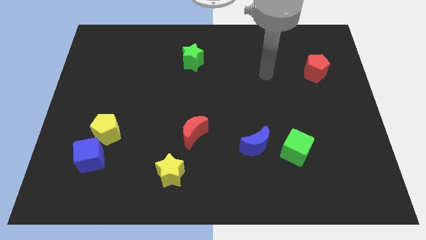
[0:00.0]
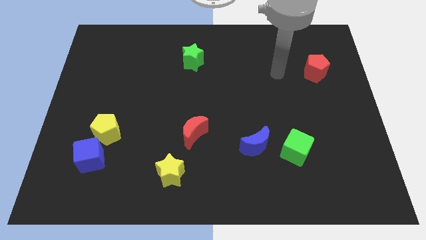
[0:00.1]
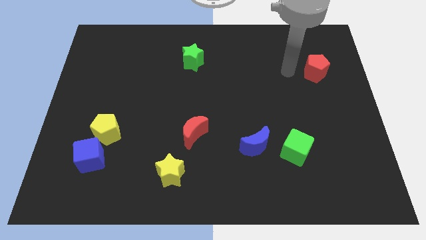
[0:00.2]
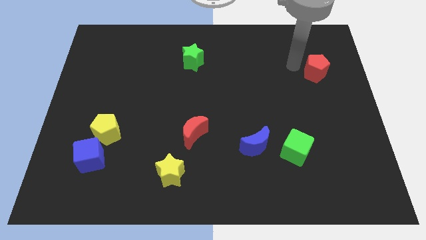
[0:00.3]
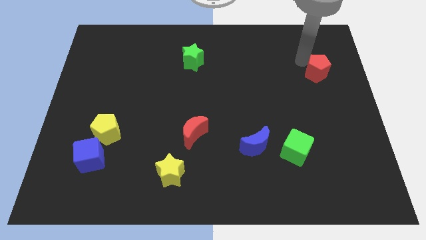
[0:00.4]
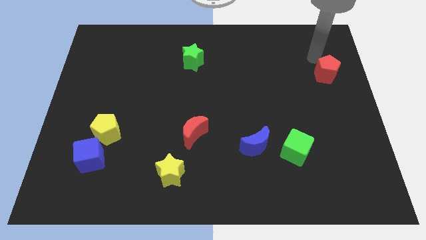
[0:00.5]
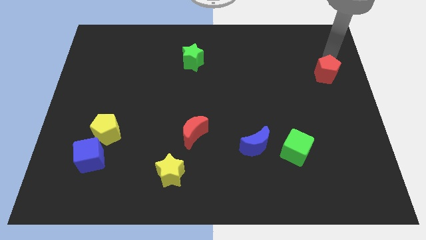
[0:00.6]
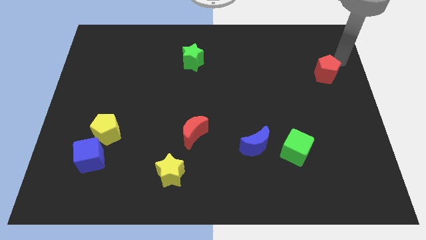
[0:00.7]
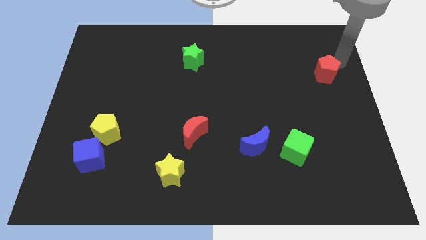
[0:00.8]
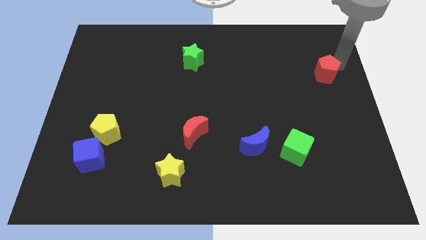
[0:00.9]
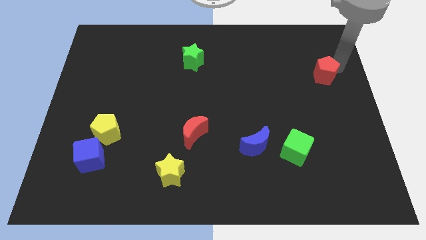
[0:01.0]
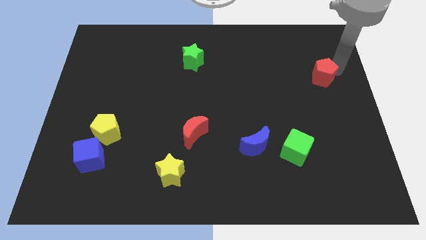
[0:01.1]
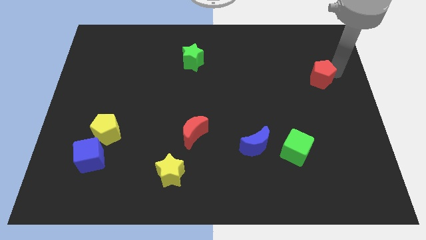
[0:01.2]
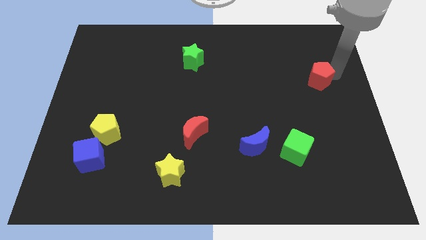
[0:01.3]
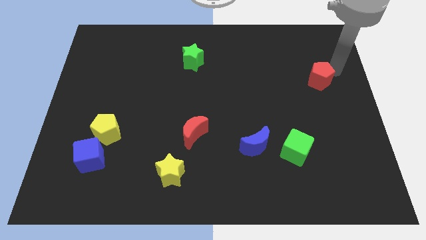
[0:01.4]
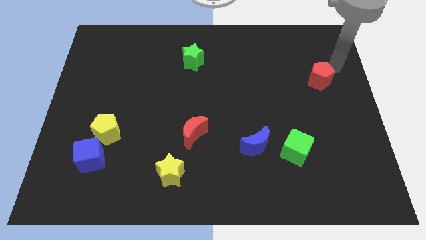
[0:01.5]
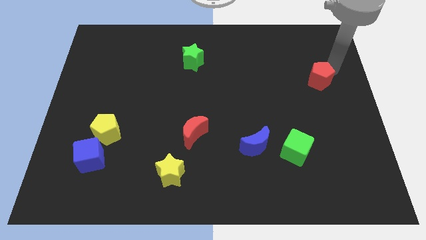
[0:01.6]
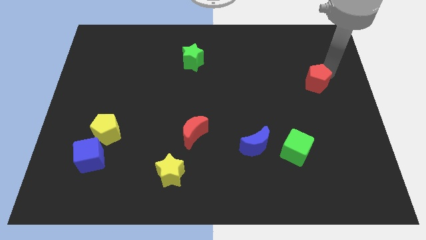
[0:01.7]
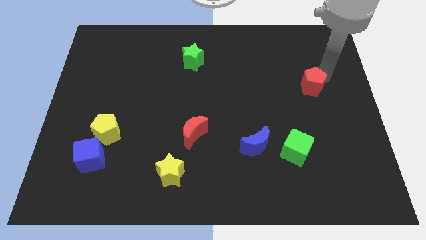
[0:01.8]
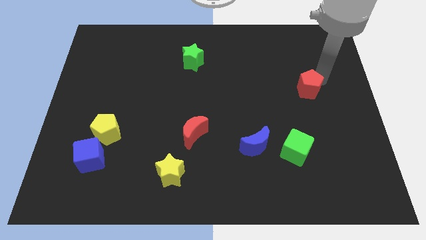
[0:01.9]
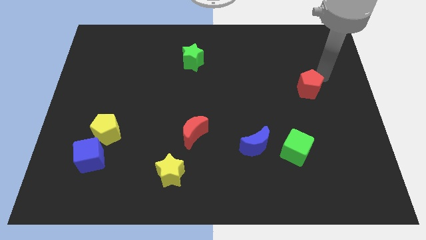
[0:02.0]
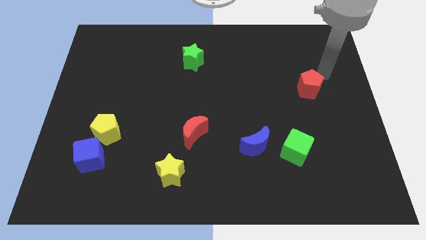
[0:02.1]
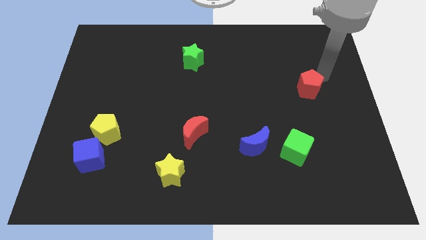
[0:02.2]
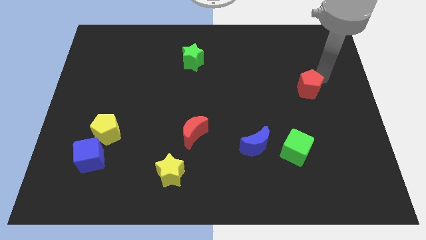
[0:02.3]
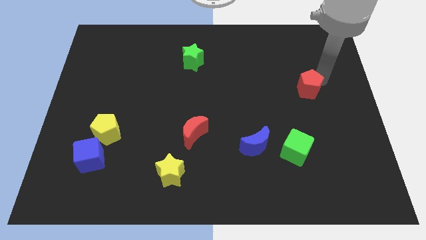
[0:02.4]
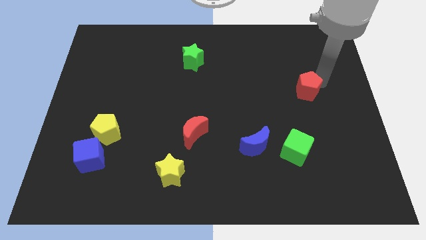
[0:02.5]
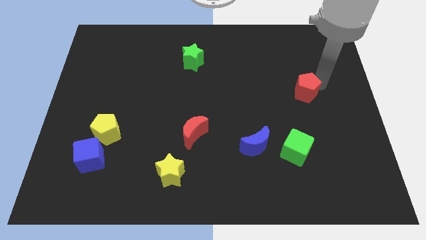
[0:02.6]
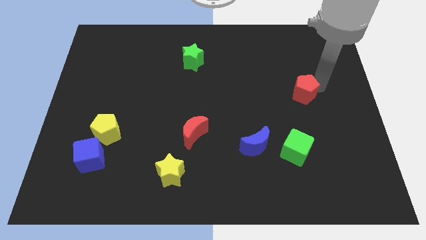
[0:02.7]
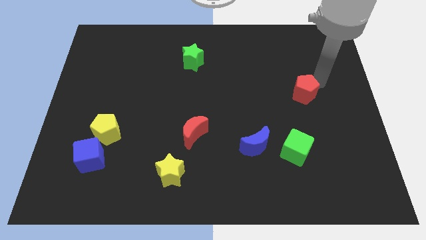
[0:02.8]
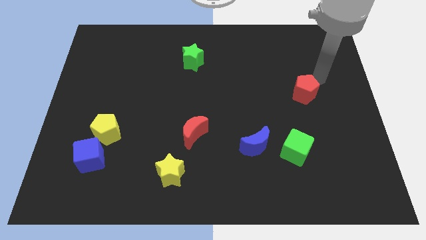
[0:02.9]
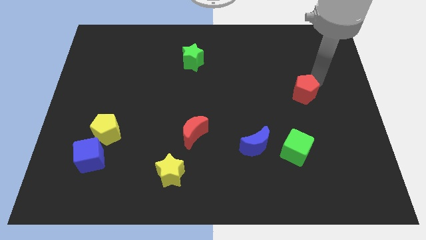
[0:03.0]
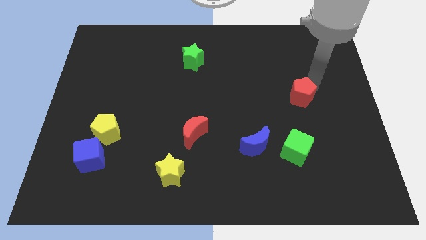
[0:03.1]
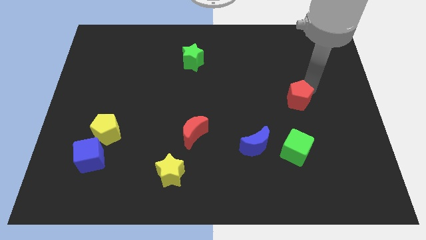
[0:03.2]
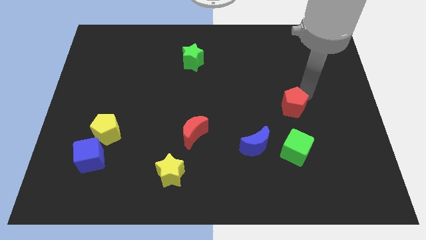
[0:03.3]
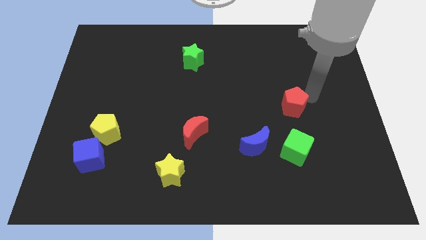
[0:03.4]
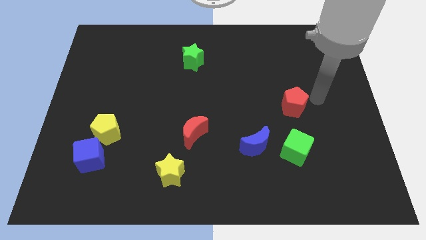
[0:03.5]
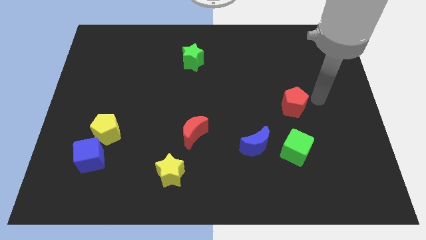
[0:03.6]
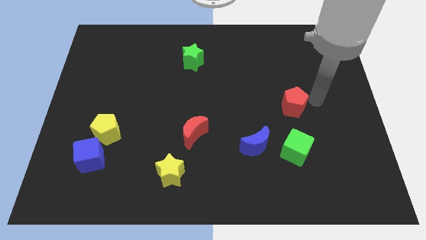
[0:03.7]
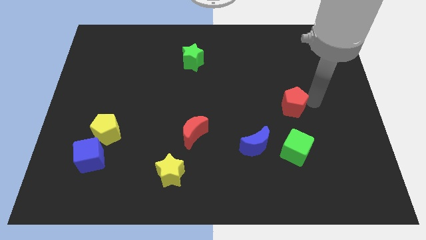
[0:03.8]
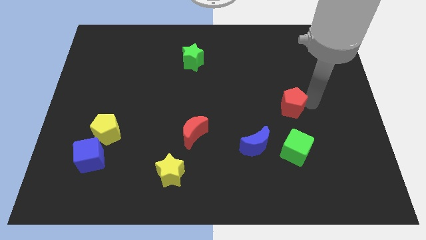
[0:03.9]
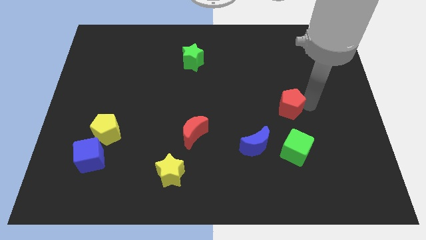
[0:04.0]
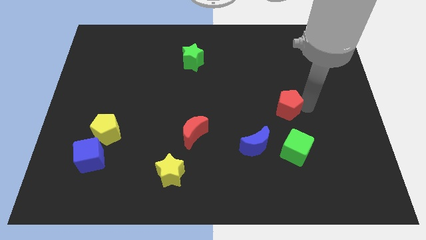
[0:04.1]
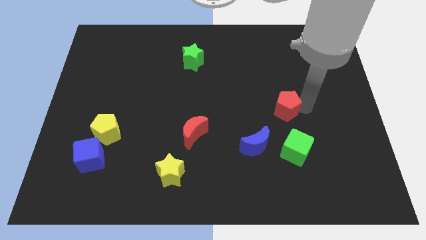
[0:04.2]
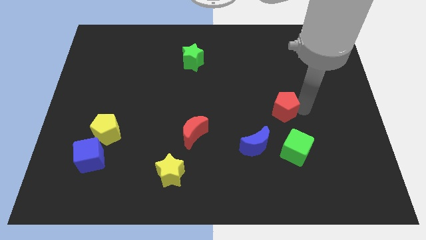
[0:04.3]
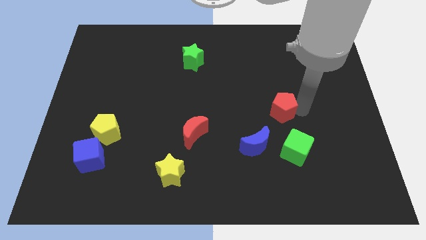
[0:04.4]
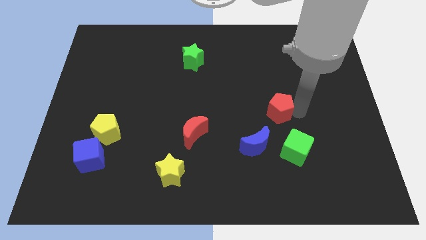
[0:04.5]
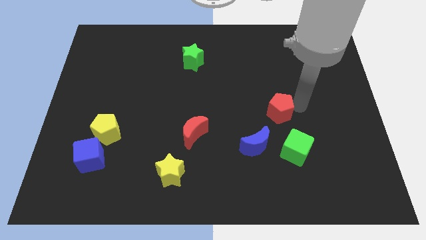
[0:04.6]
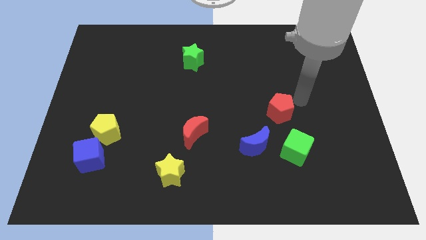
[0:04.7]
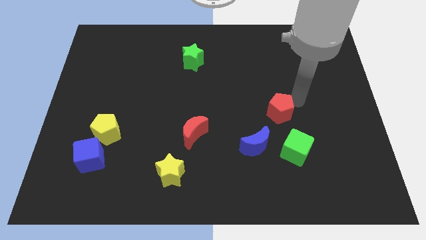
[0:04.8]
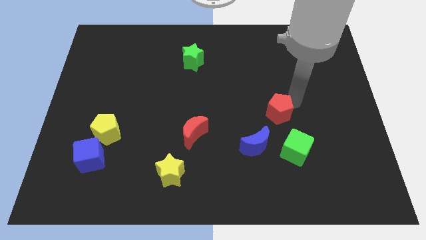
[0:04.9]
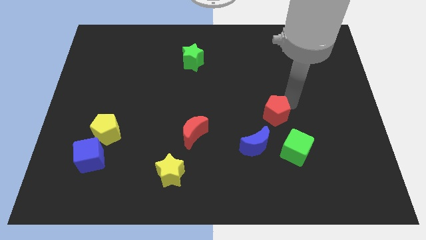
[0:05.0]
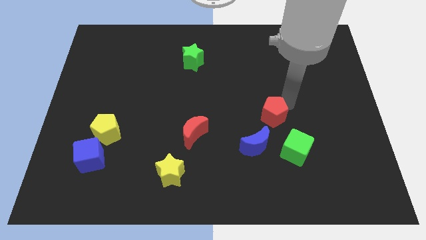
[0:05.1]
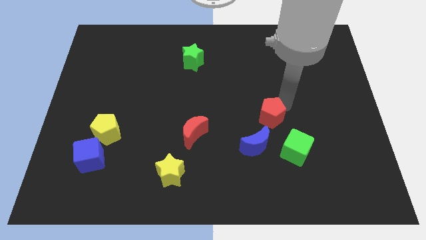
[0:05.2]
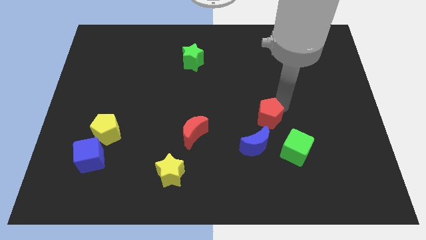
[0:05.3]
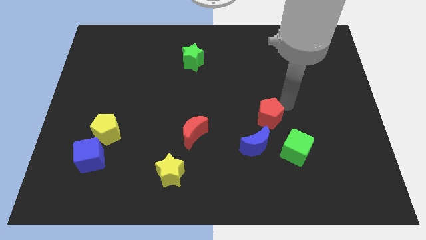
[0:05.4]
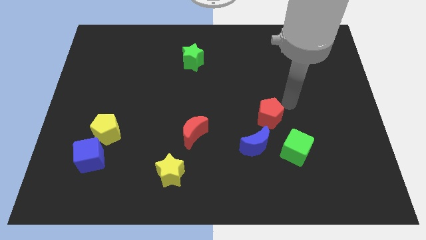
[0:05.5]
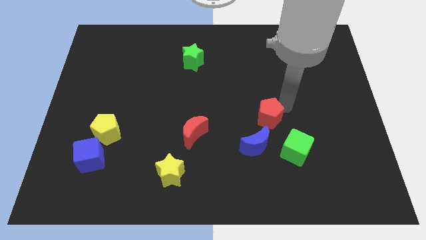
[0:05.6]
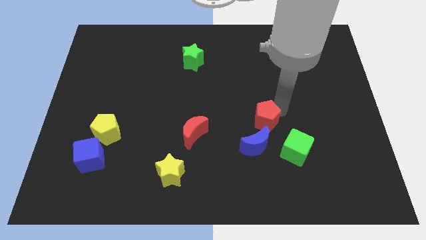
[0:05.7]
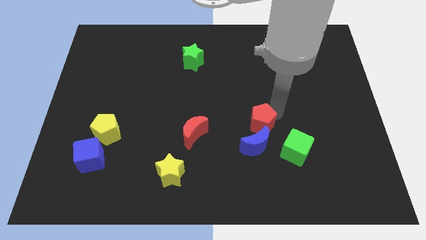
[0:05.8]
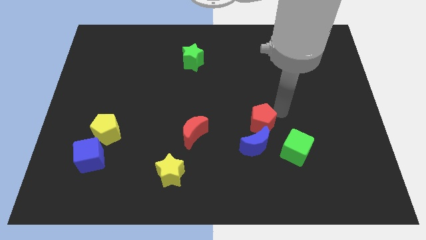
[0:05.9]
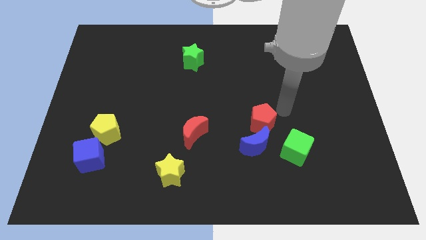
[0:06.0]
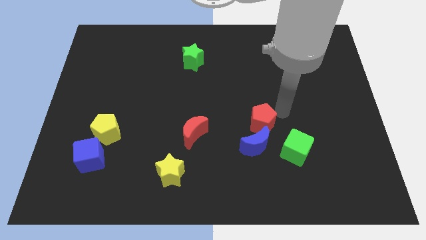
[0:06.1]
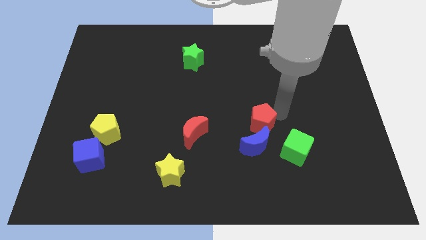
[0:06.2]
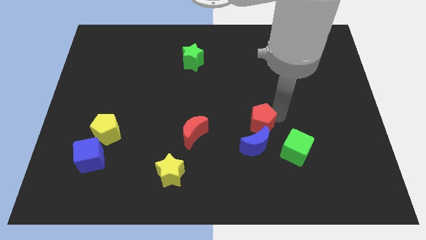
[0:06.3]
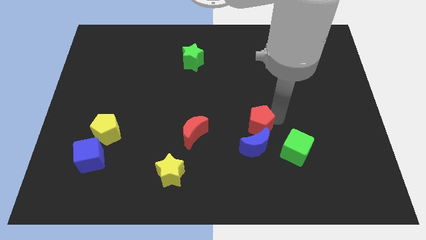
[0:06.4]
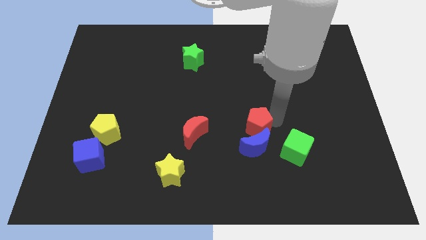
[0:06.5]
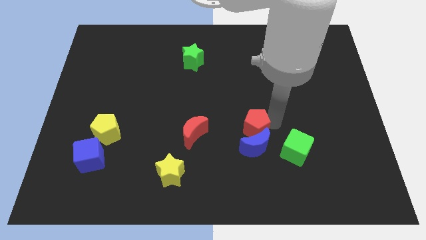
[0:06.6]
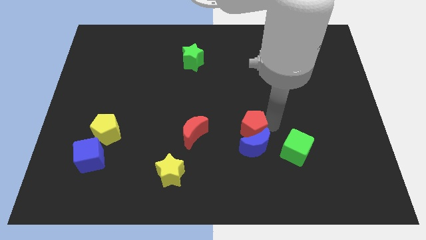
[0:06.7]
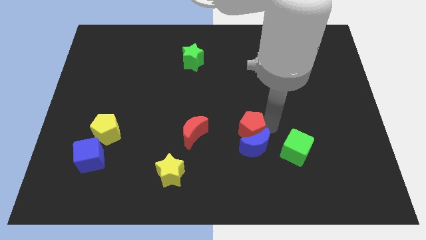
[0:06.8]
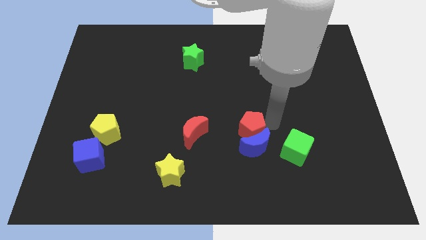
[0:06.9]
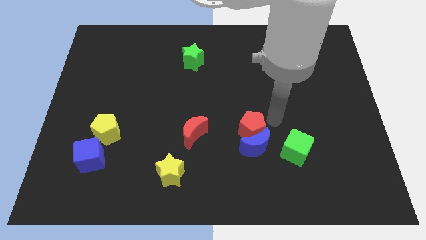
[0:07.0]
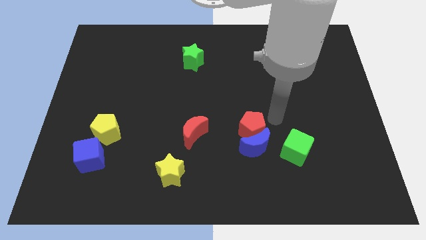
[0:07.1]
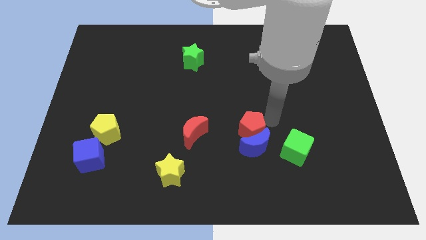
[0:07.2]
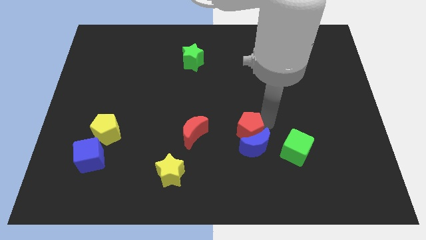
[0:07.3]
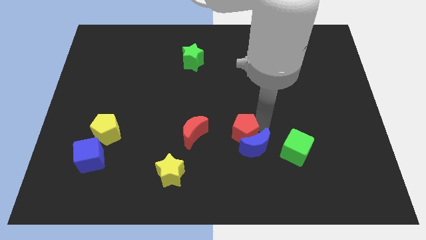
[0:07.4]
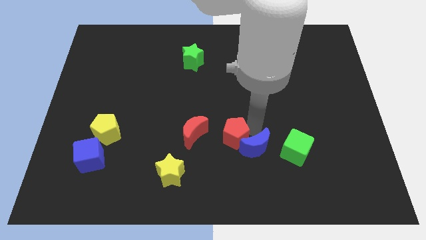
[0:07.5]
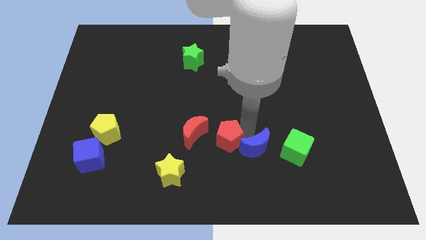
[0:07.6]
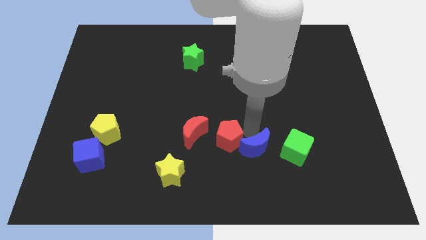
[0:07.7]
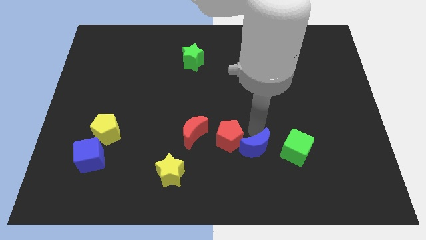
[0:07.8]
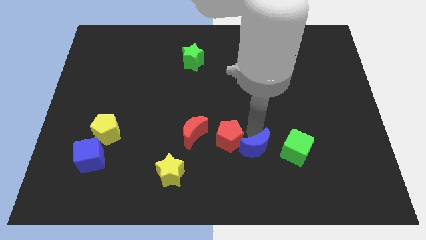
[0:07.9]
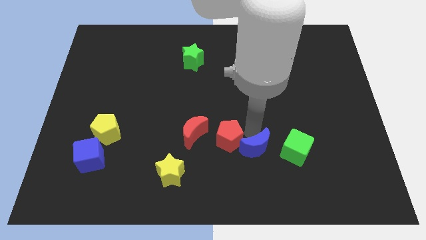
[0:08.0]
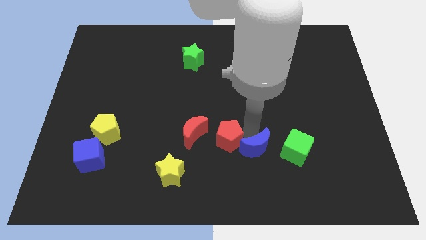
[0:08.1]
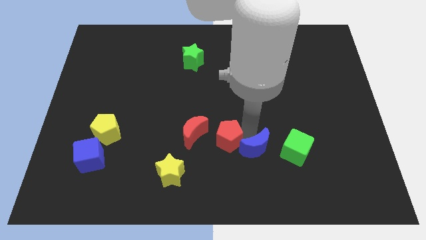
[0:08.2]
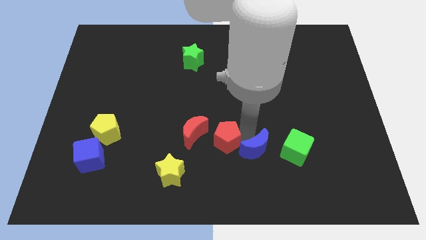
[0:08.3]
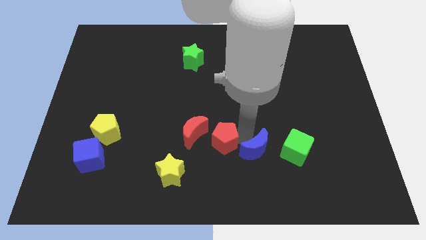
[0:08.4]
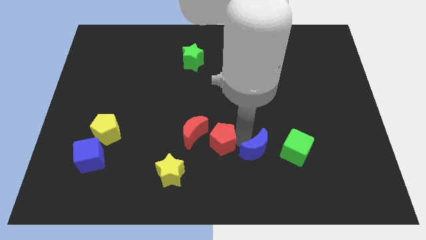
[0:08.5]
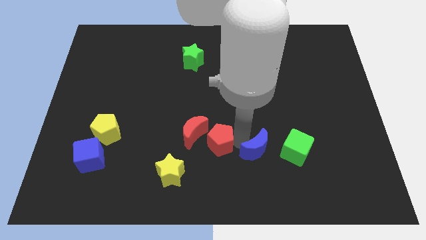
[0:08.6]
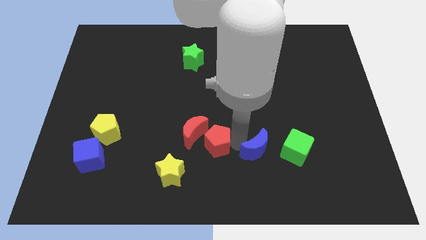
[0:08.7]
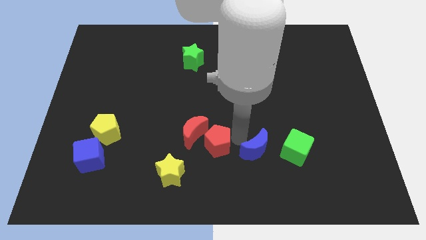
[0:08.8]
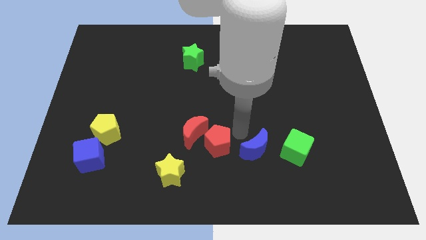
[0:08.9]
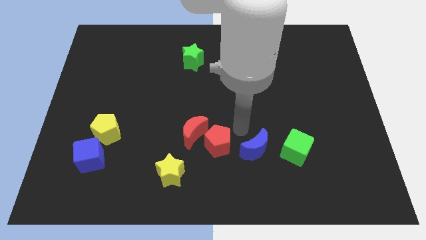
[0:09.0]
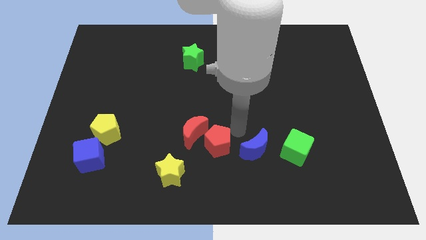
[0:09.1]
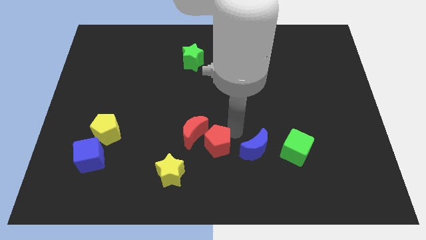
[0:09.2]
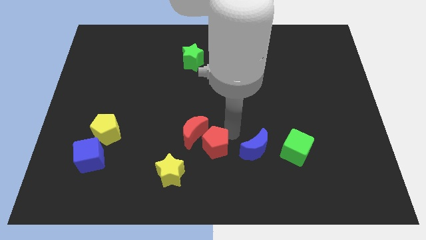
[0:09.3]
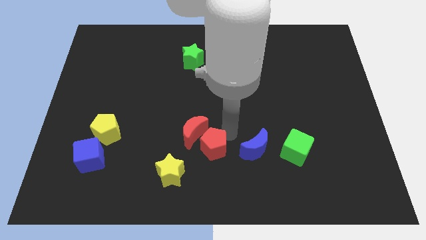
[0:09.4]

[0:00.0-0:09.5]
move the red pentagon to the bottom side of the red moon
